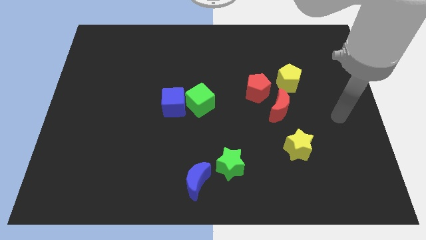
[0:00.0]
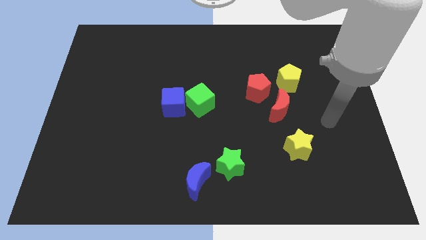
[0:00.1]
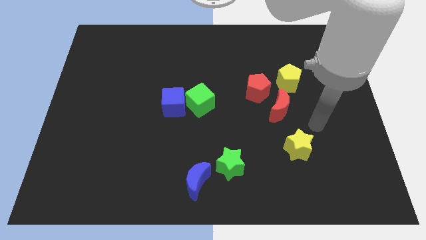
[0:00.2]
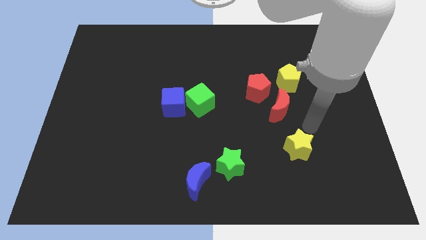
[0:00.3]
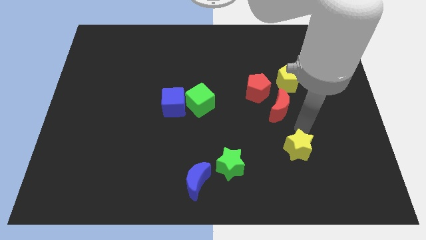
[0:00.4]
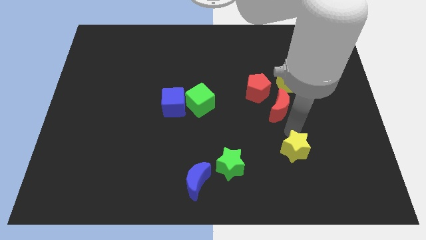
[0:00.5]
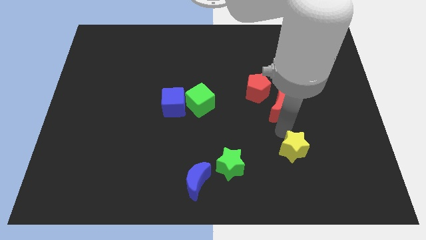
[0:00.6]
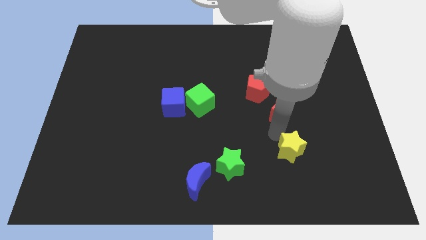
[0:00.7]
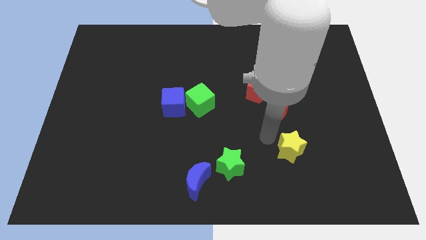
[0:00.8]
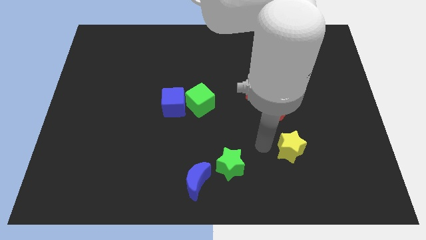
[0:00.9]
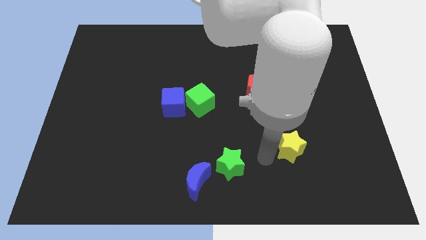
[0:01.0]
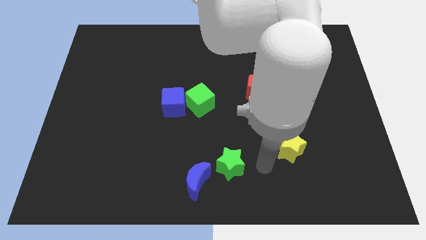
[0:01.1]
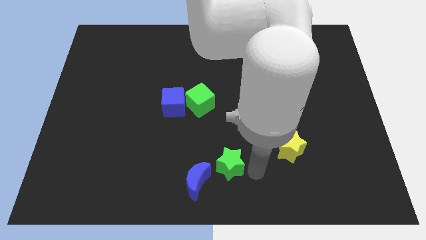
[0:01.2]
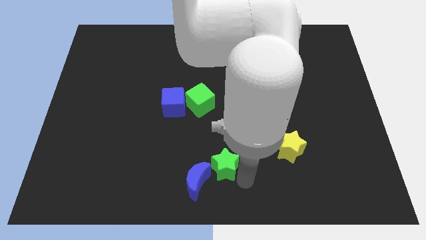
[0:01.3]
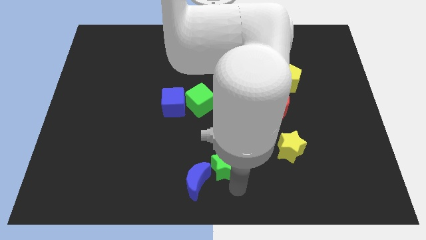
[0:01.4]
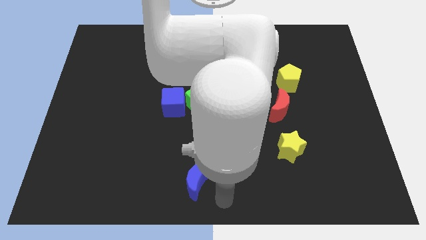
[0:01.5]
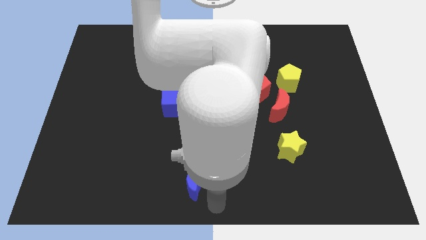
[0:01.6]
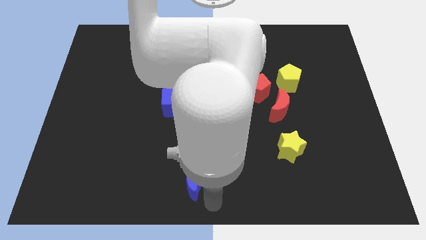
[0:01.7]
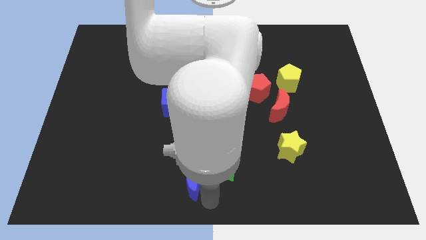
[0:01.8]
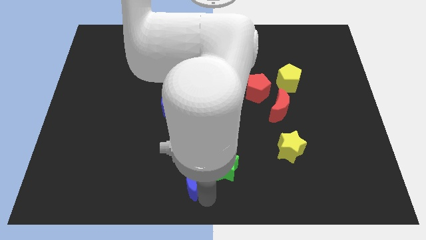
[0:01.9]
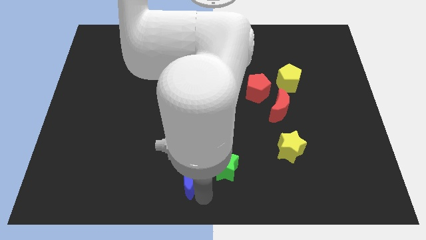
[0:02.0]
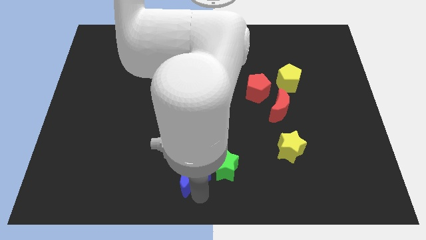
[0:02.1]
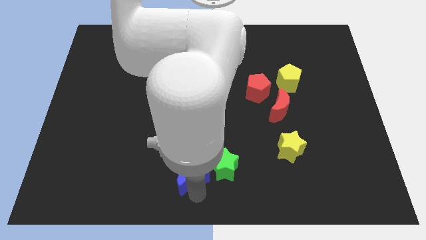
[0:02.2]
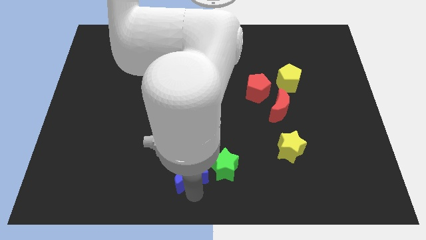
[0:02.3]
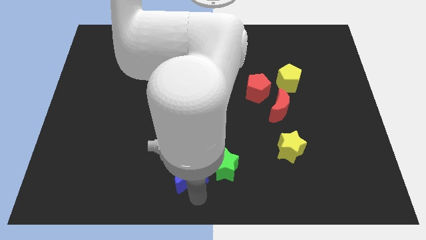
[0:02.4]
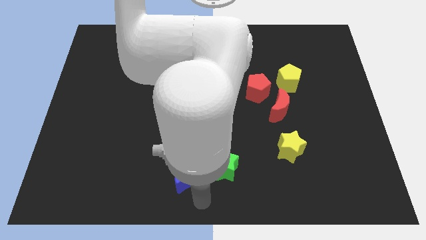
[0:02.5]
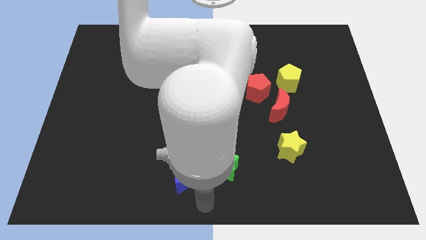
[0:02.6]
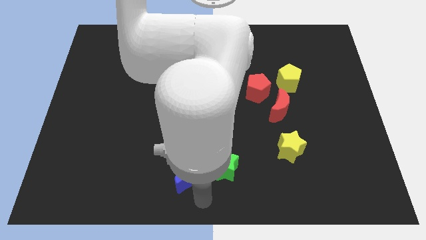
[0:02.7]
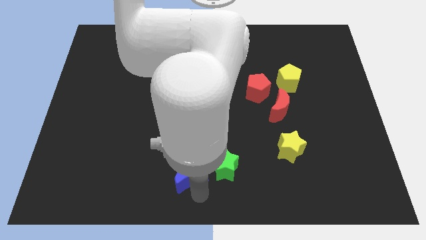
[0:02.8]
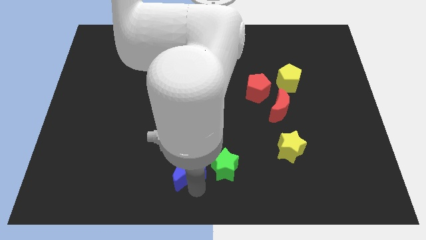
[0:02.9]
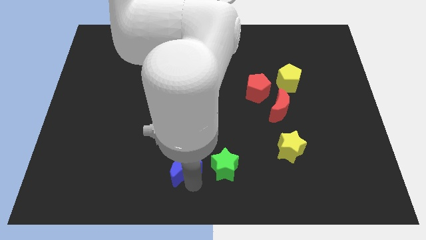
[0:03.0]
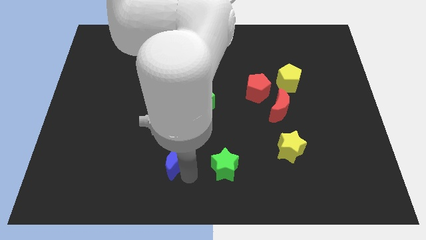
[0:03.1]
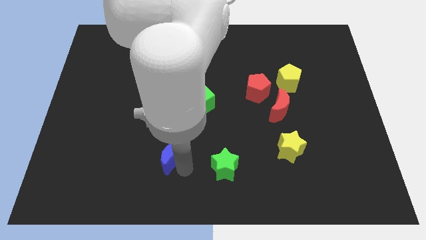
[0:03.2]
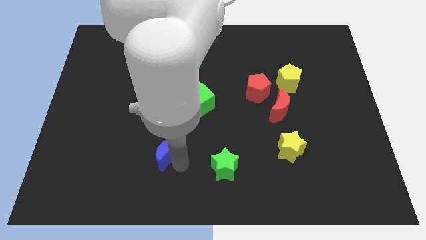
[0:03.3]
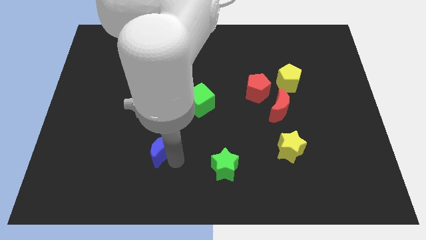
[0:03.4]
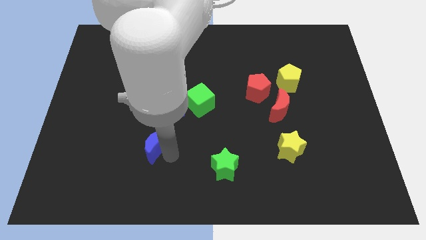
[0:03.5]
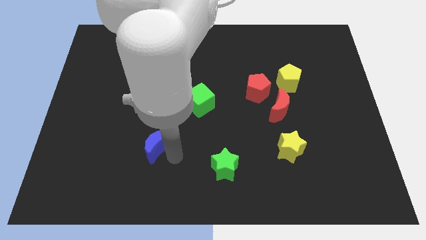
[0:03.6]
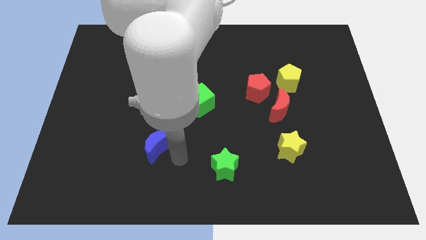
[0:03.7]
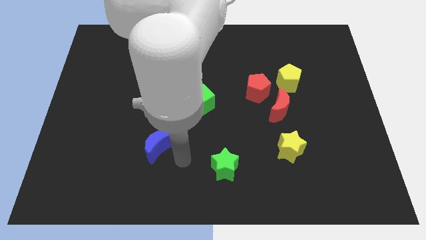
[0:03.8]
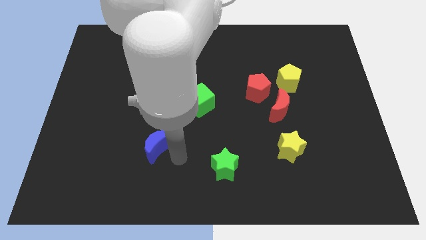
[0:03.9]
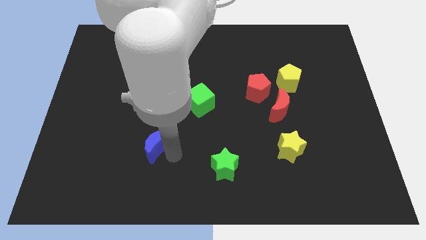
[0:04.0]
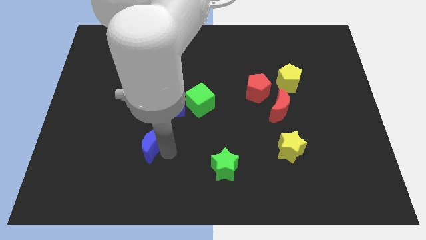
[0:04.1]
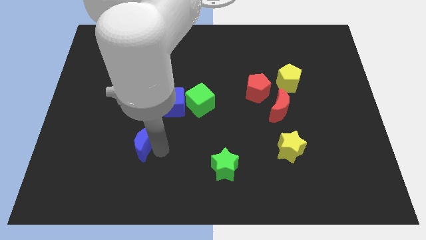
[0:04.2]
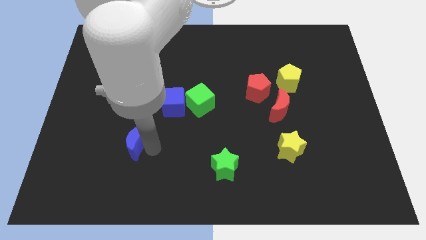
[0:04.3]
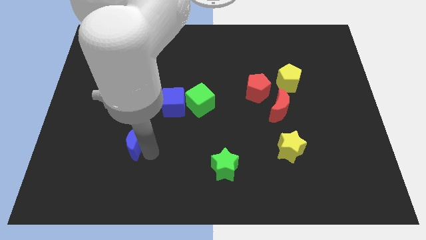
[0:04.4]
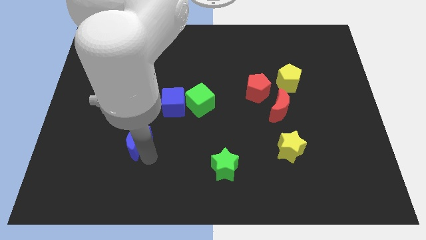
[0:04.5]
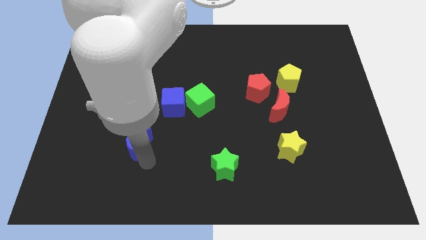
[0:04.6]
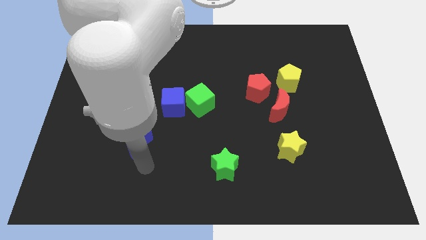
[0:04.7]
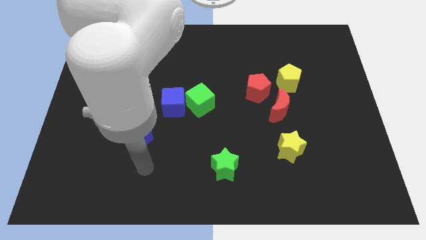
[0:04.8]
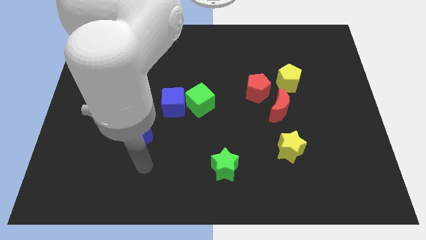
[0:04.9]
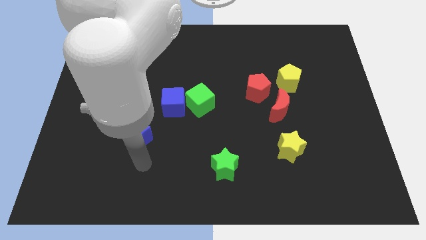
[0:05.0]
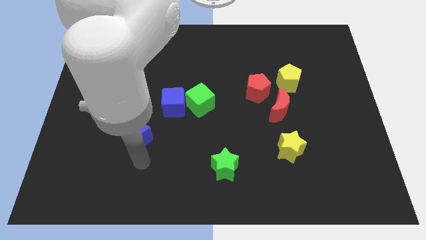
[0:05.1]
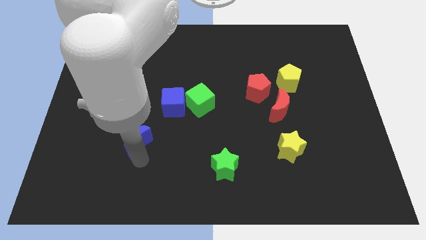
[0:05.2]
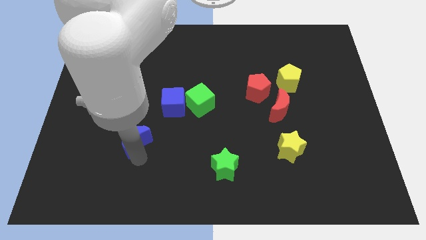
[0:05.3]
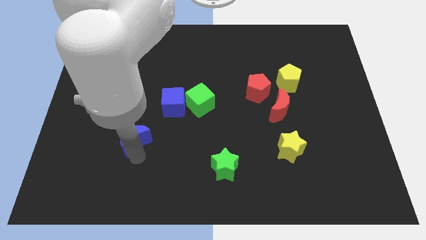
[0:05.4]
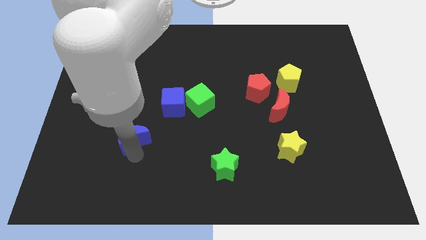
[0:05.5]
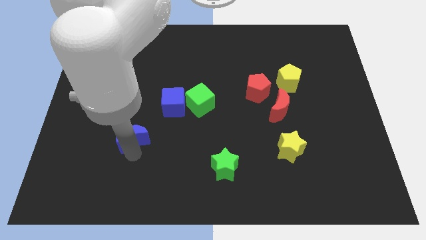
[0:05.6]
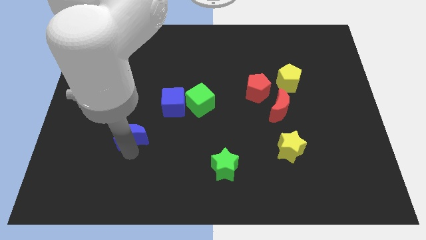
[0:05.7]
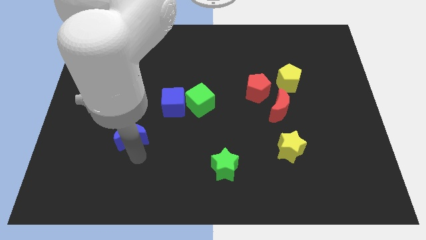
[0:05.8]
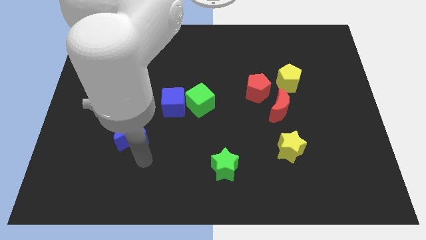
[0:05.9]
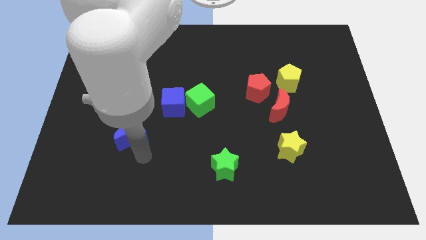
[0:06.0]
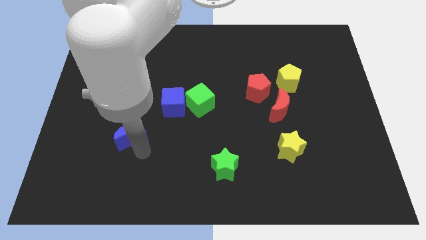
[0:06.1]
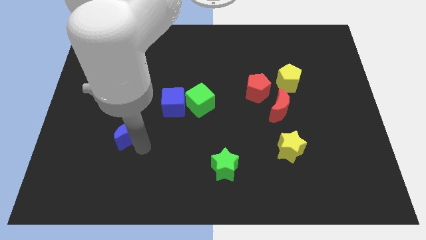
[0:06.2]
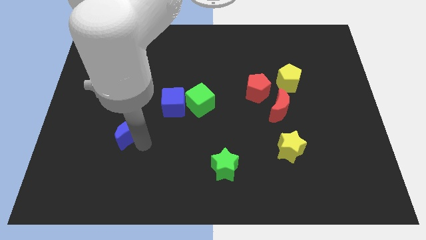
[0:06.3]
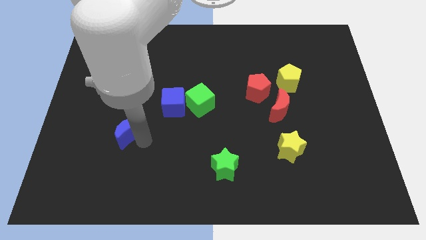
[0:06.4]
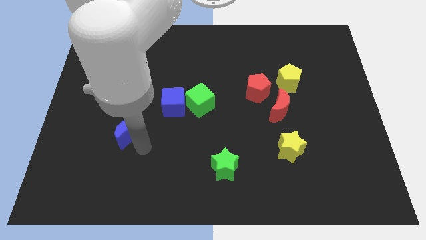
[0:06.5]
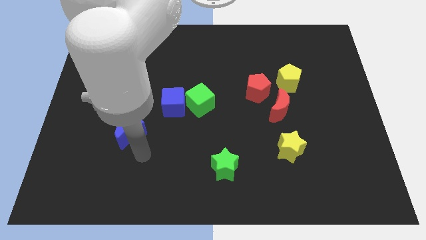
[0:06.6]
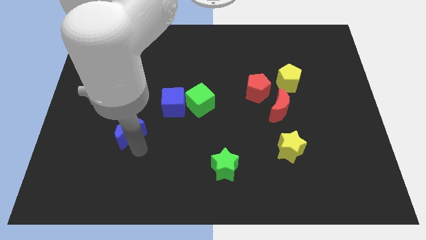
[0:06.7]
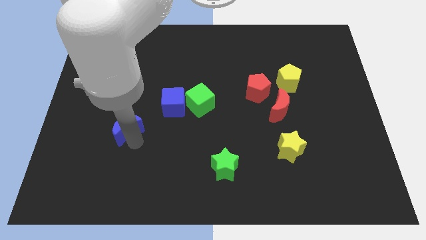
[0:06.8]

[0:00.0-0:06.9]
move the blue moon upwards and left

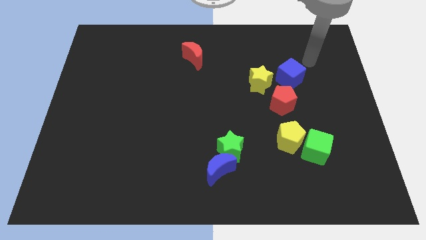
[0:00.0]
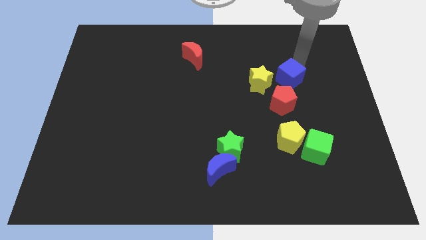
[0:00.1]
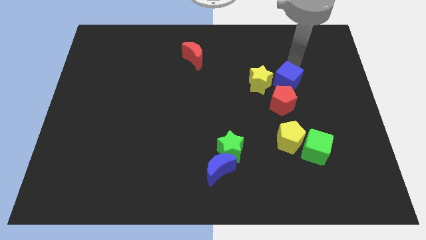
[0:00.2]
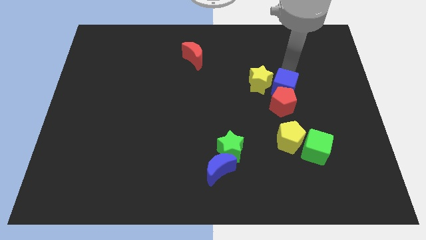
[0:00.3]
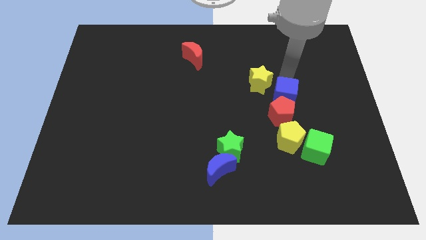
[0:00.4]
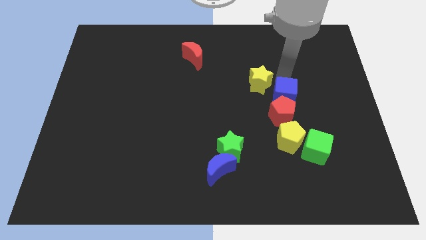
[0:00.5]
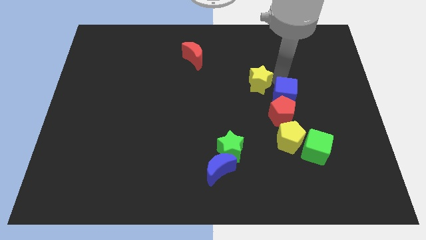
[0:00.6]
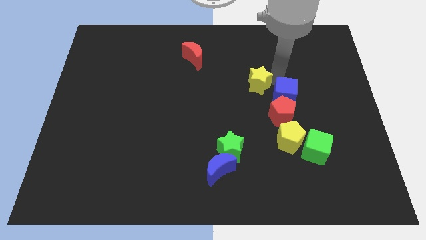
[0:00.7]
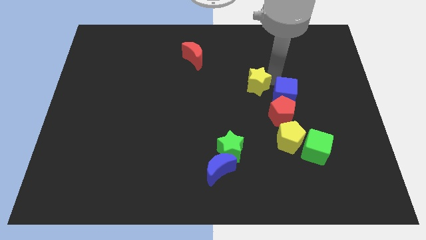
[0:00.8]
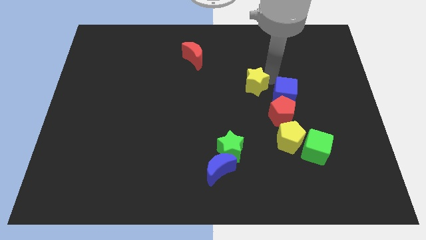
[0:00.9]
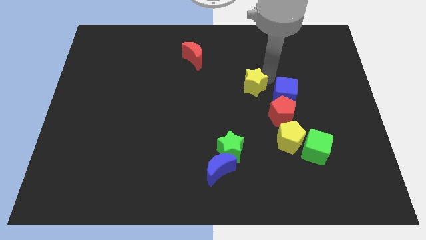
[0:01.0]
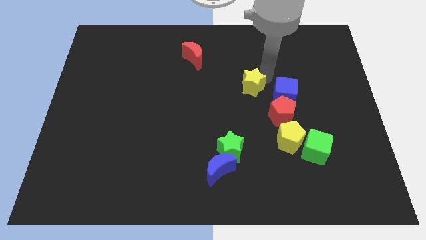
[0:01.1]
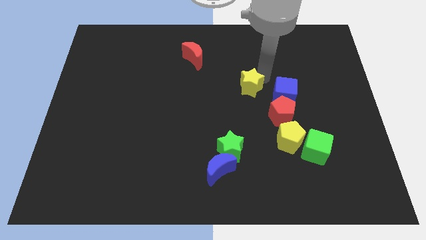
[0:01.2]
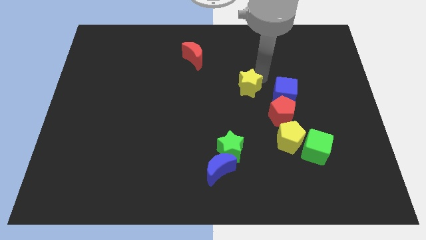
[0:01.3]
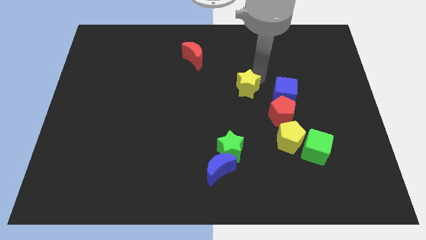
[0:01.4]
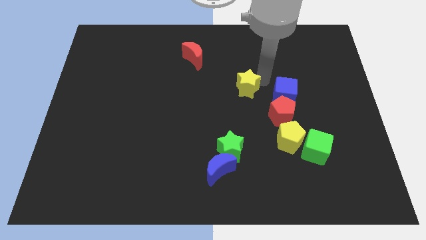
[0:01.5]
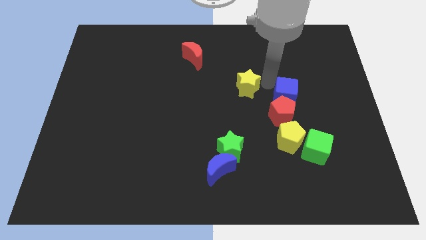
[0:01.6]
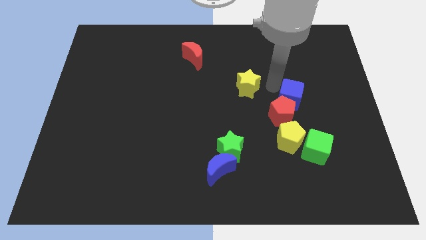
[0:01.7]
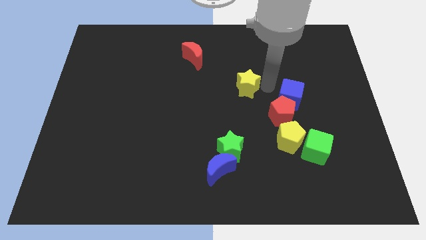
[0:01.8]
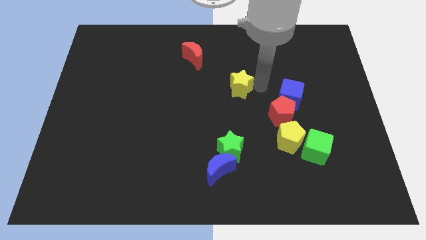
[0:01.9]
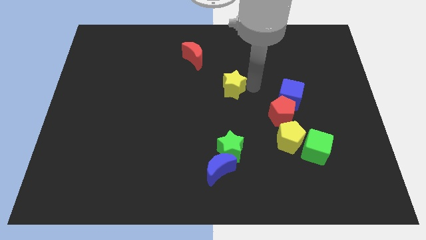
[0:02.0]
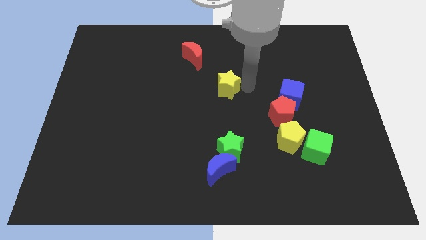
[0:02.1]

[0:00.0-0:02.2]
slide the yellow star to the left somewhat
